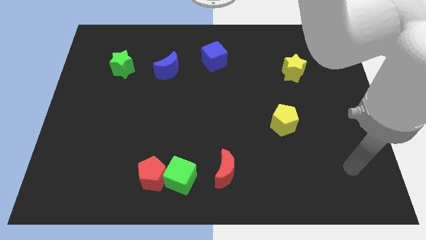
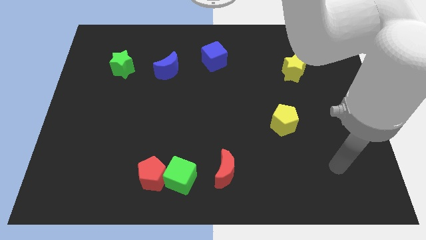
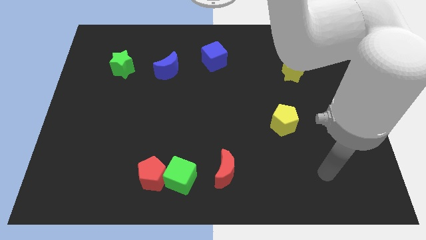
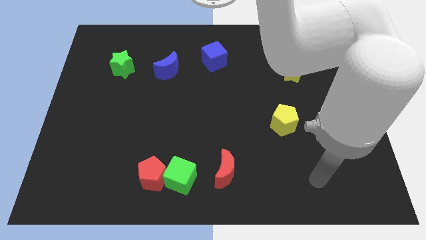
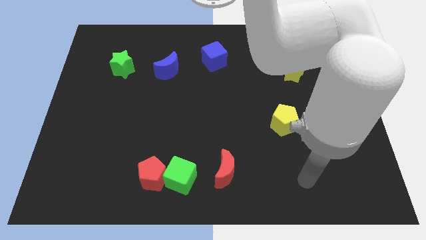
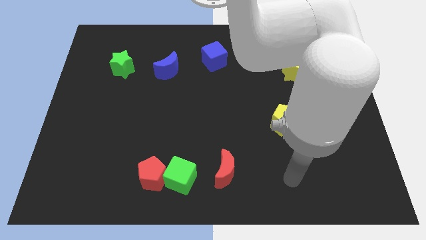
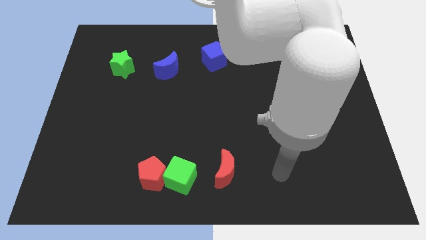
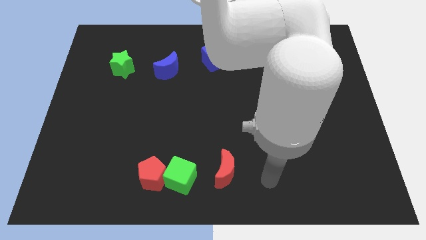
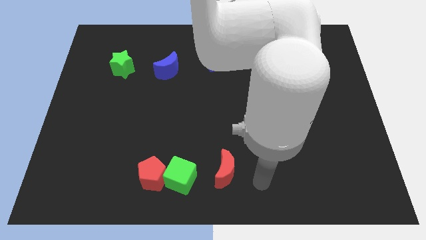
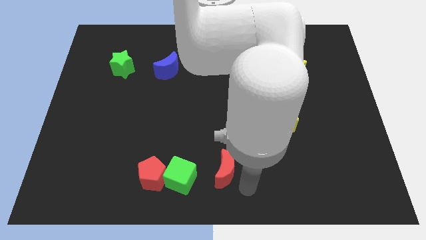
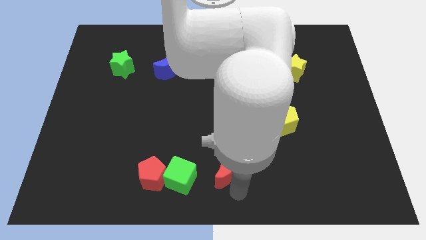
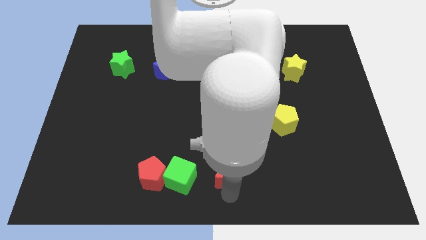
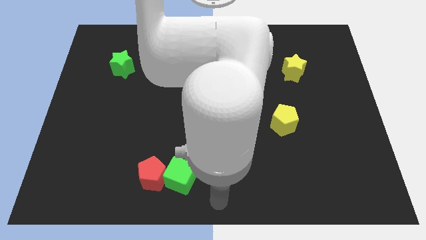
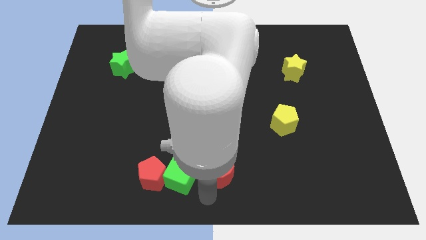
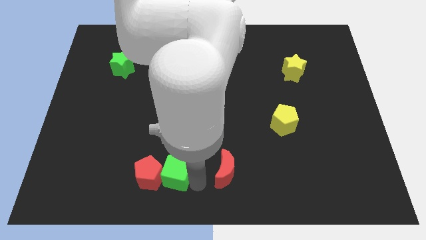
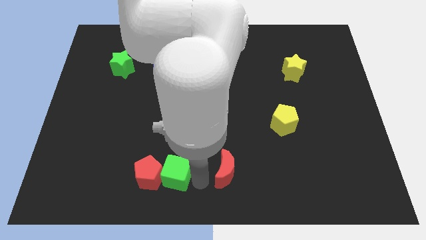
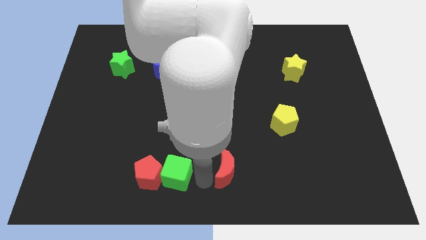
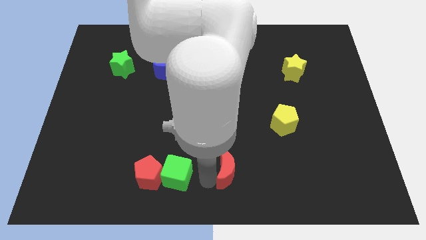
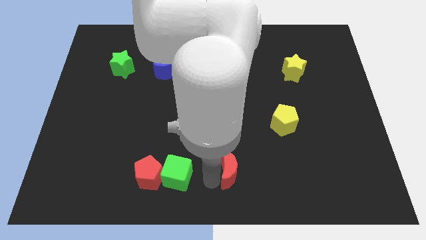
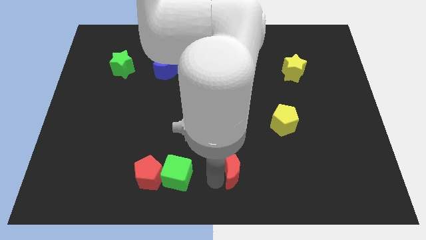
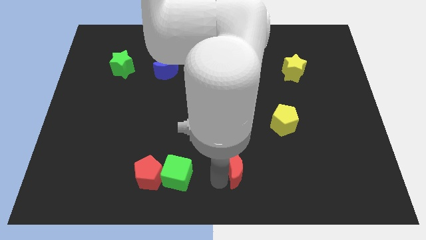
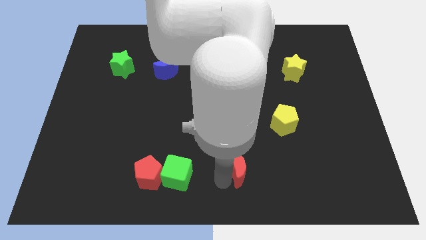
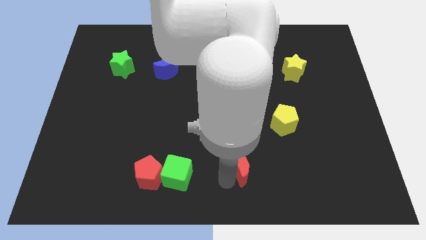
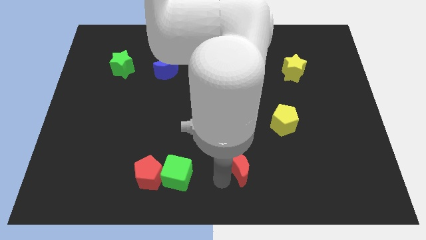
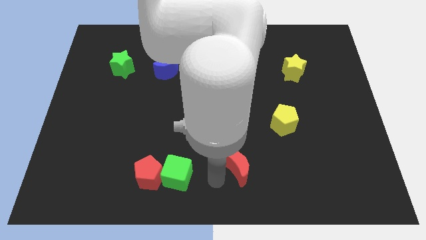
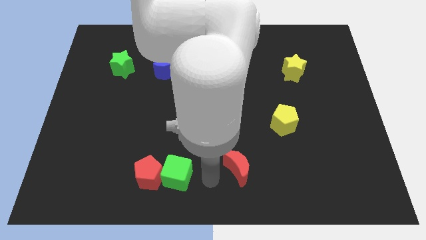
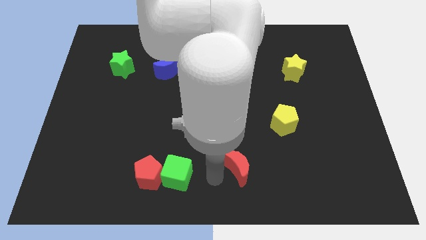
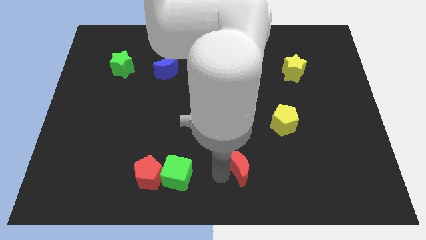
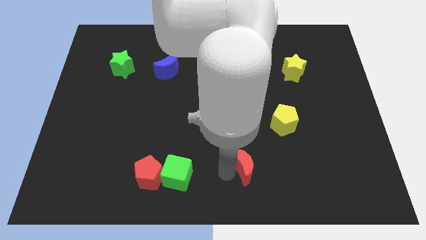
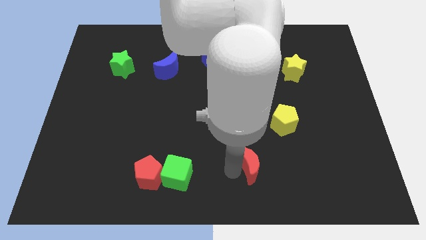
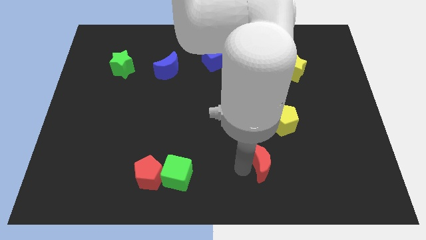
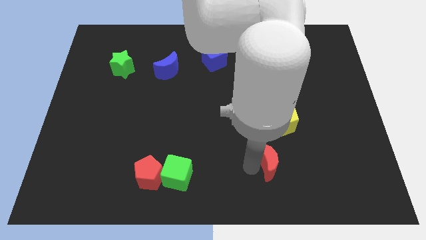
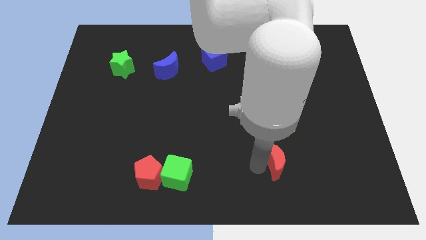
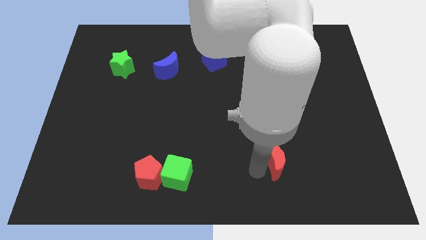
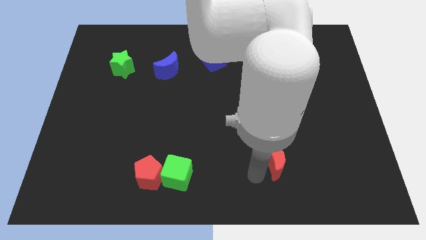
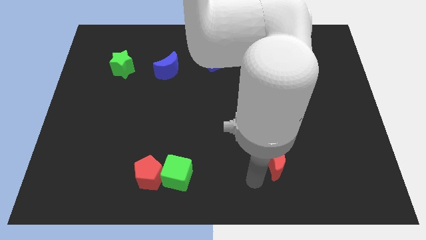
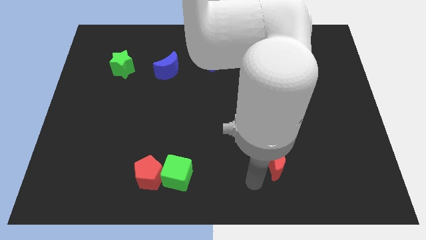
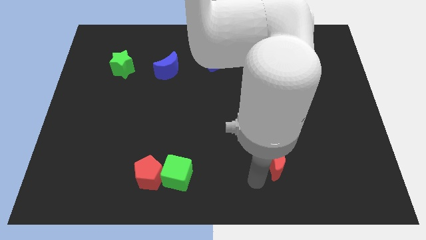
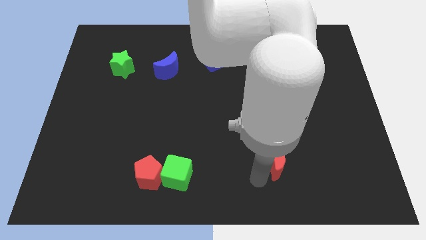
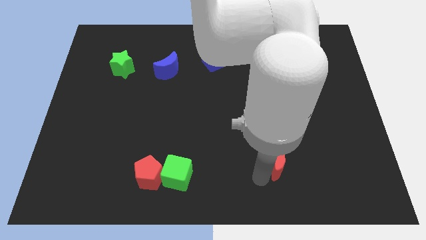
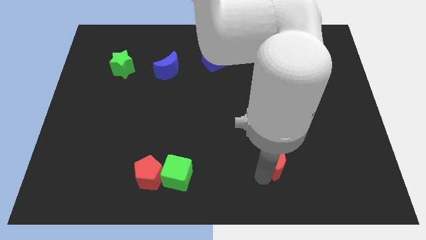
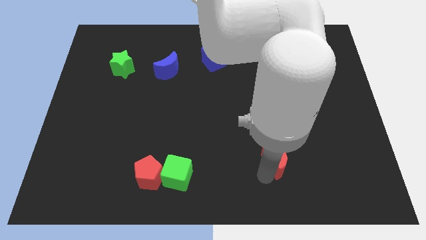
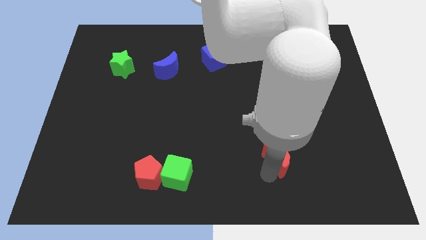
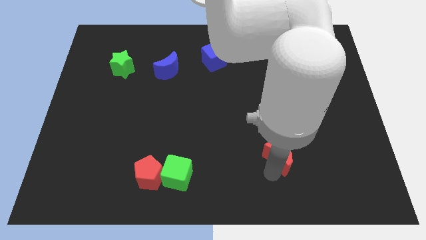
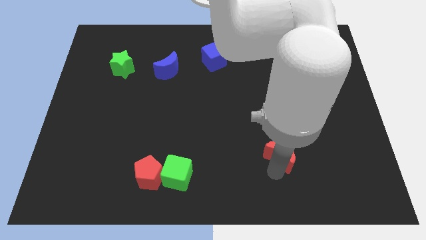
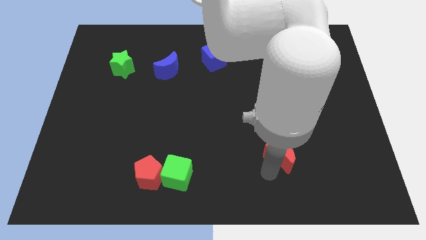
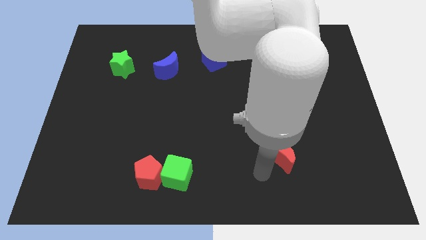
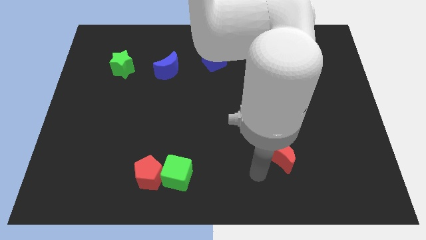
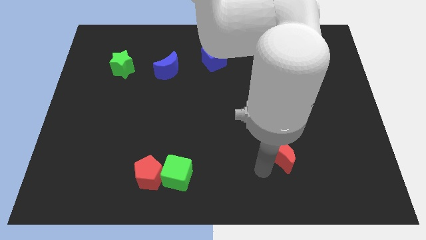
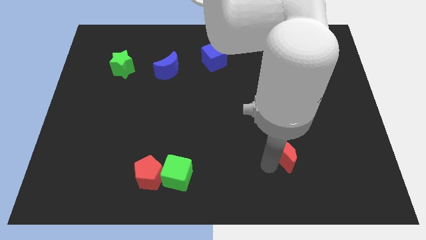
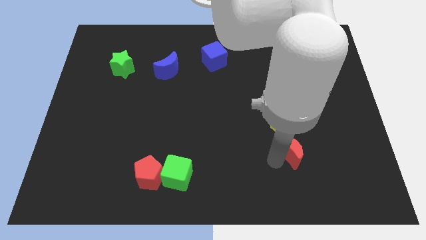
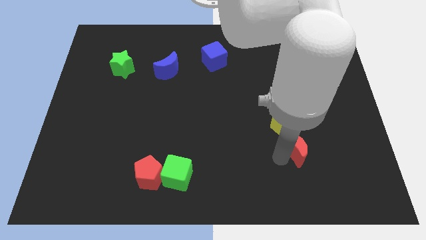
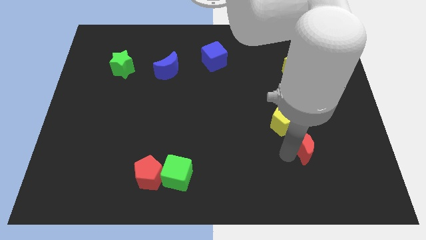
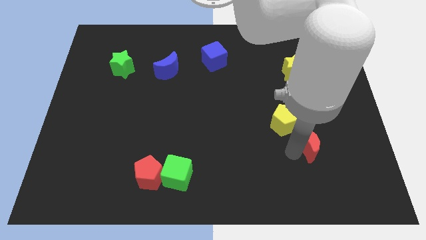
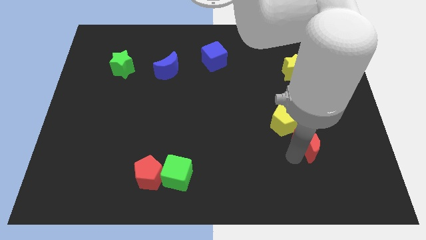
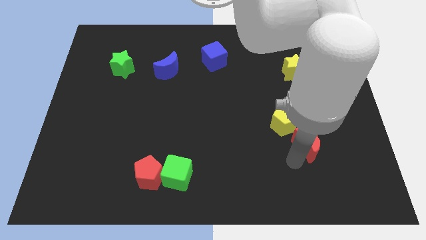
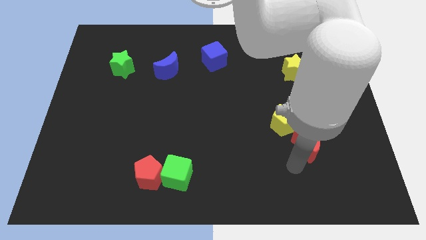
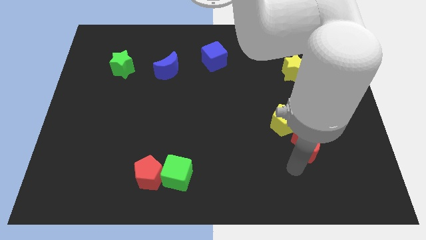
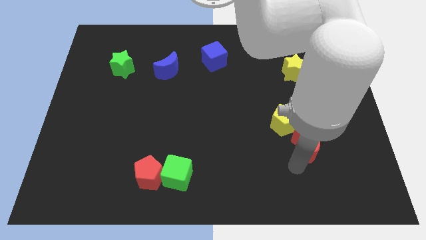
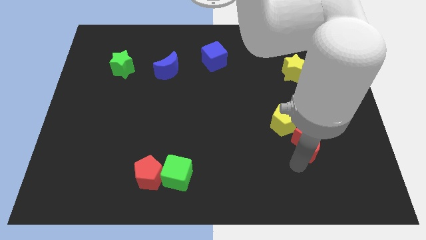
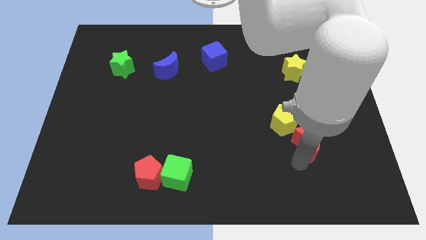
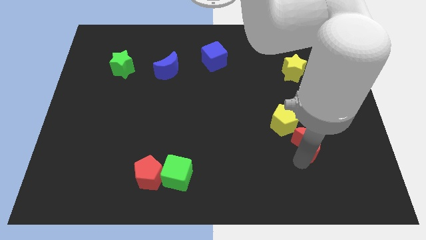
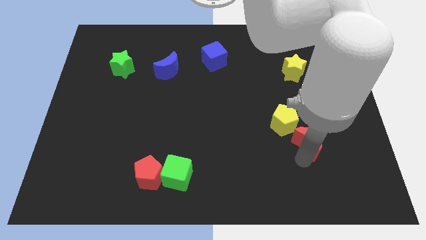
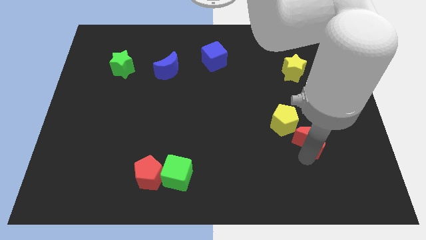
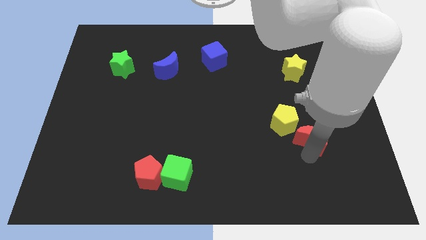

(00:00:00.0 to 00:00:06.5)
put the red moon just right of the yellow pentagon
